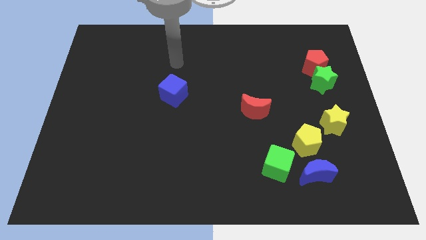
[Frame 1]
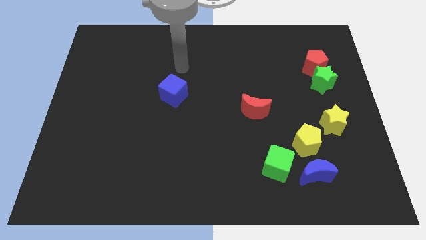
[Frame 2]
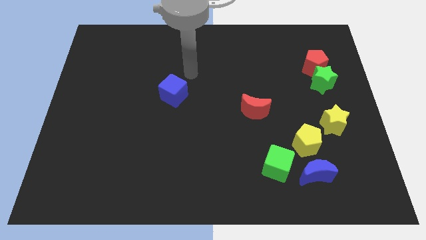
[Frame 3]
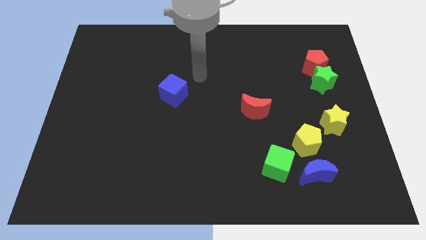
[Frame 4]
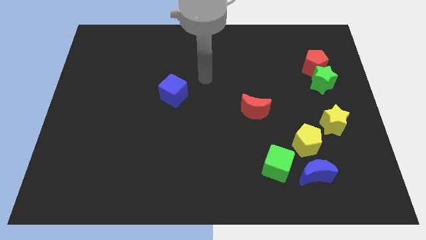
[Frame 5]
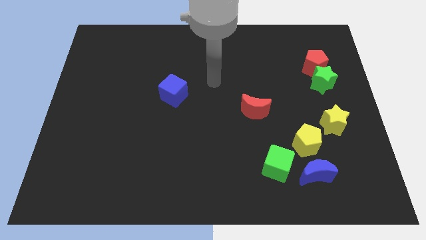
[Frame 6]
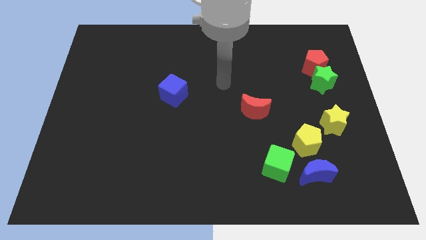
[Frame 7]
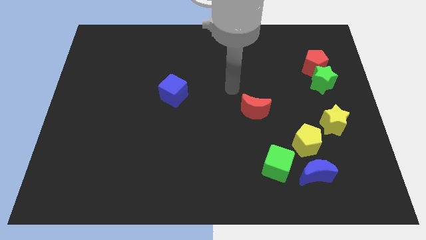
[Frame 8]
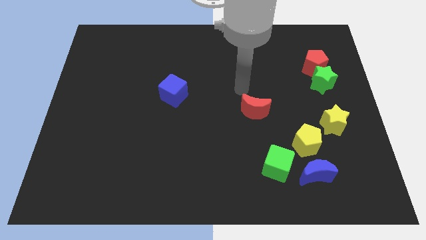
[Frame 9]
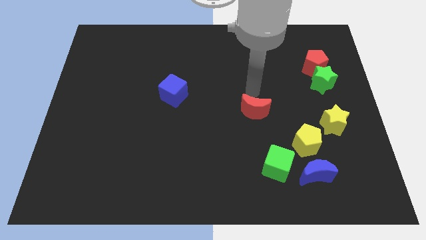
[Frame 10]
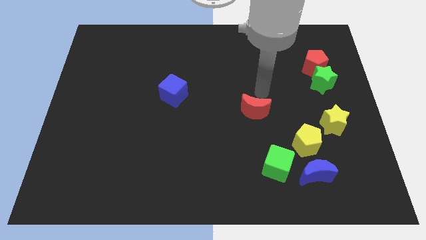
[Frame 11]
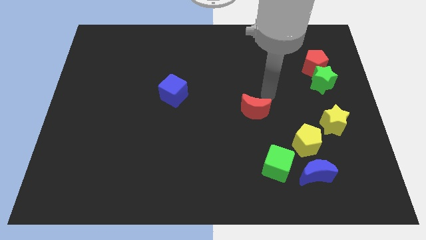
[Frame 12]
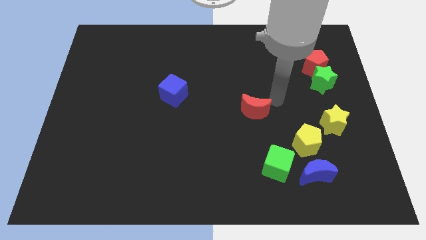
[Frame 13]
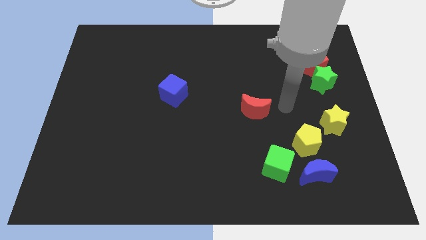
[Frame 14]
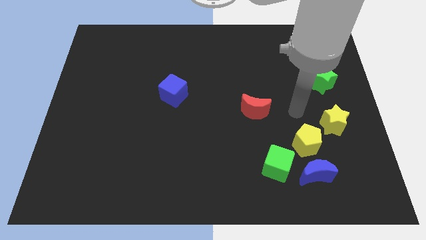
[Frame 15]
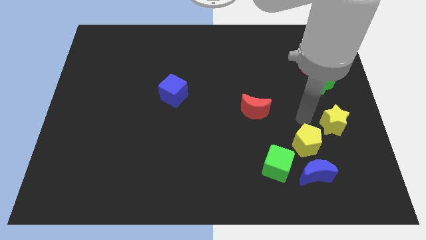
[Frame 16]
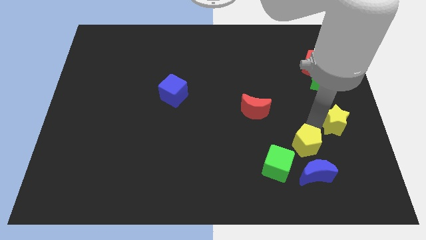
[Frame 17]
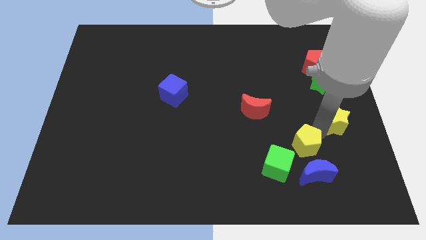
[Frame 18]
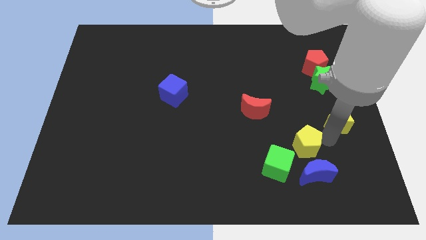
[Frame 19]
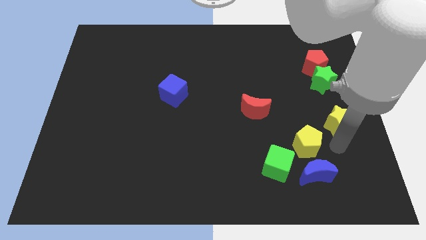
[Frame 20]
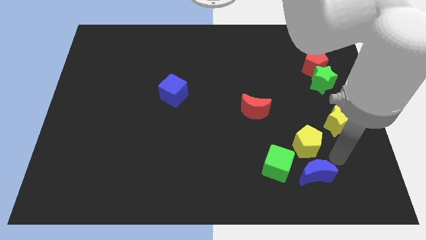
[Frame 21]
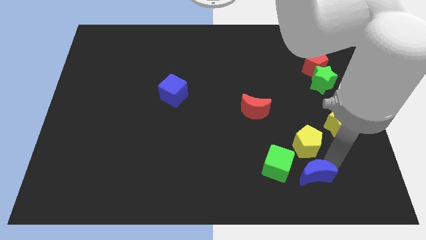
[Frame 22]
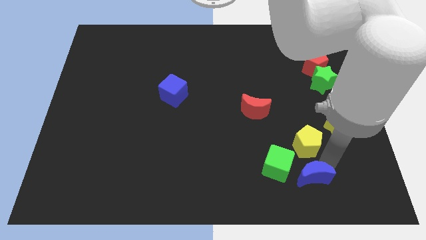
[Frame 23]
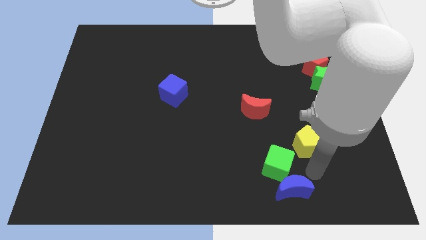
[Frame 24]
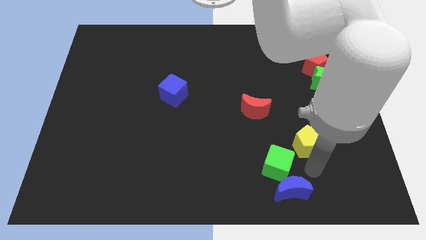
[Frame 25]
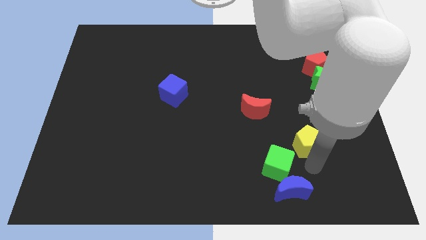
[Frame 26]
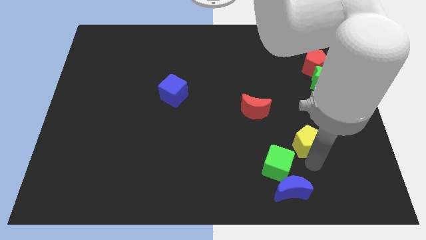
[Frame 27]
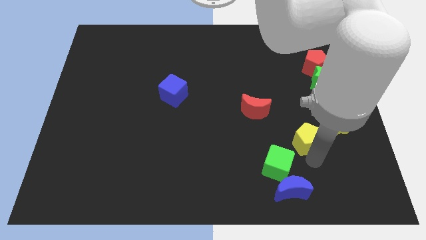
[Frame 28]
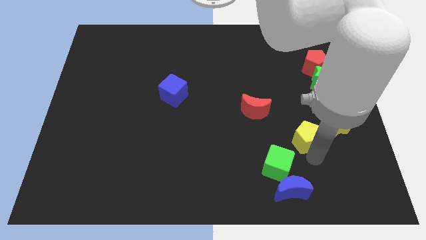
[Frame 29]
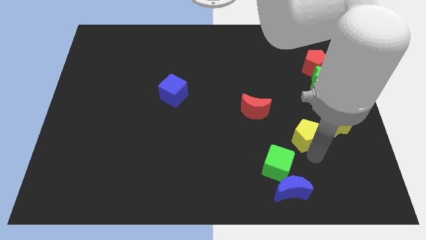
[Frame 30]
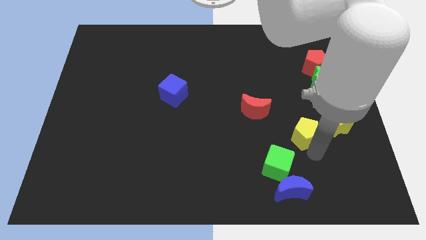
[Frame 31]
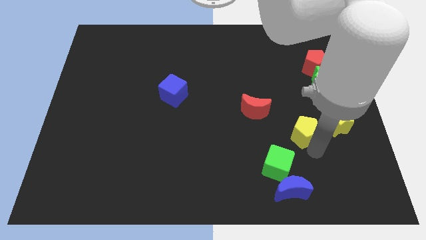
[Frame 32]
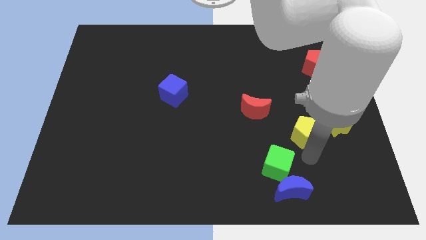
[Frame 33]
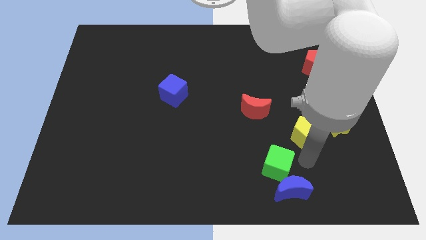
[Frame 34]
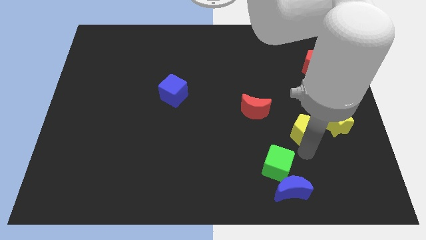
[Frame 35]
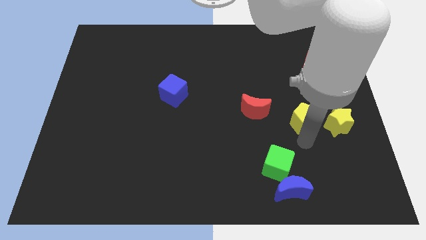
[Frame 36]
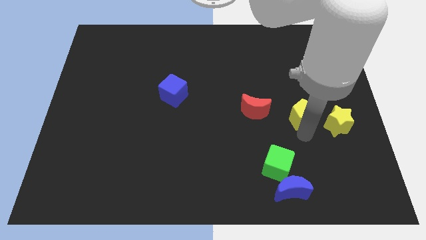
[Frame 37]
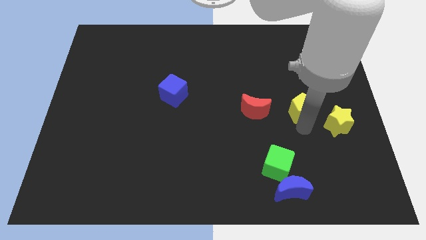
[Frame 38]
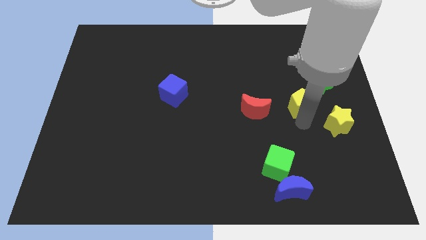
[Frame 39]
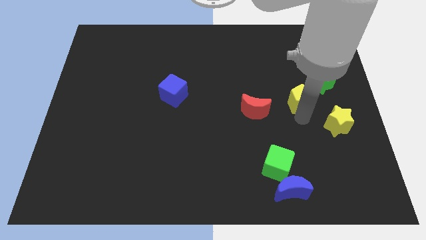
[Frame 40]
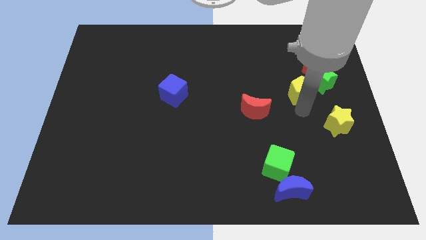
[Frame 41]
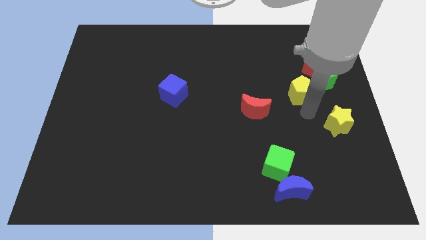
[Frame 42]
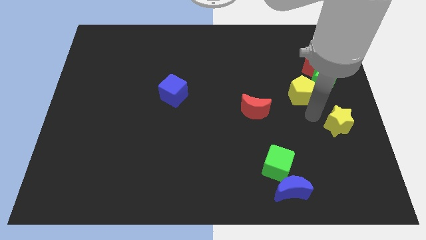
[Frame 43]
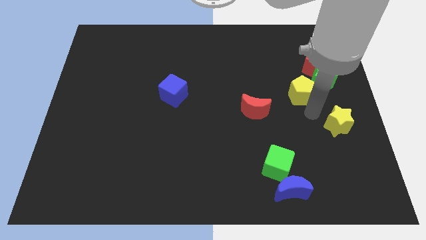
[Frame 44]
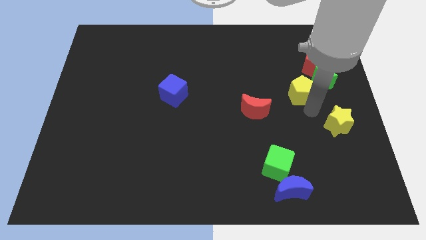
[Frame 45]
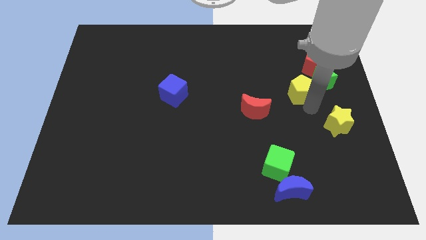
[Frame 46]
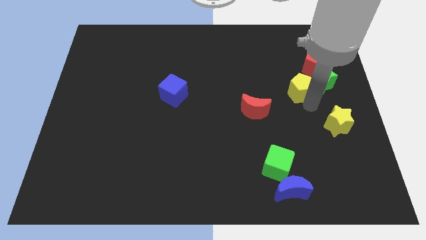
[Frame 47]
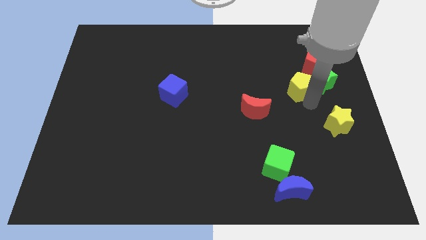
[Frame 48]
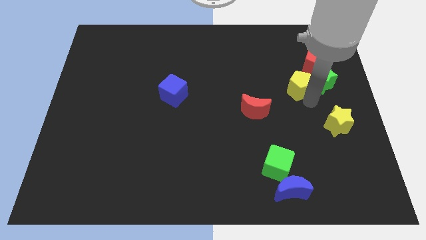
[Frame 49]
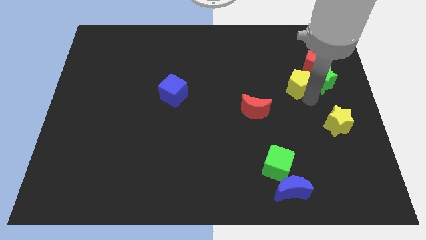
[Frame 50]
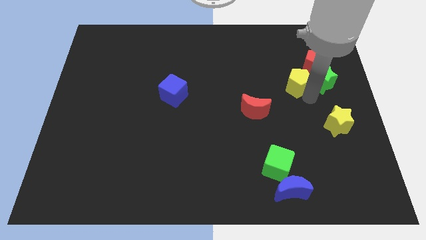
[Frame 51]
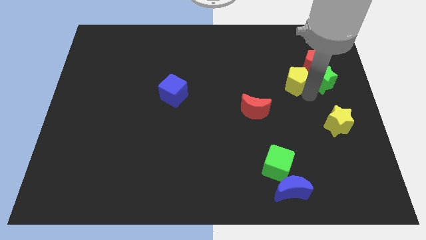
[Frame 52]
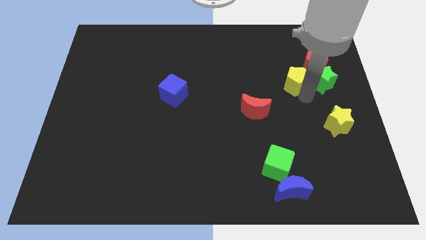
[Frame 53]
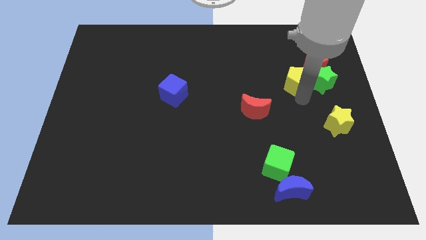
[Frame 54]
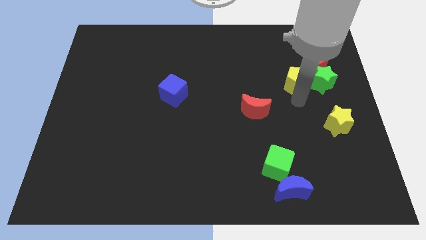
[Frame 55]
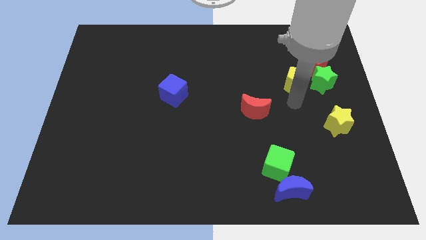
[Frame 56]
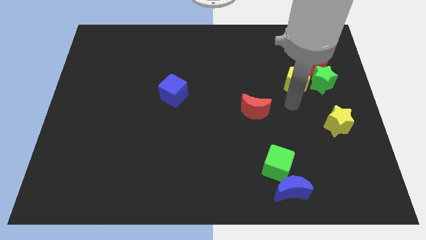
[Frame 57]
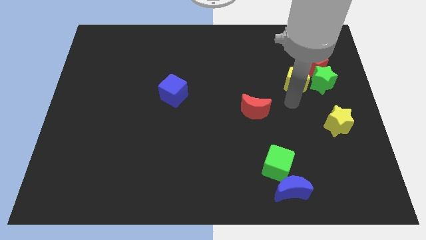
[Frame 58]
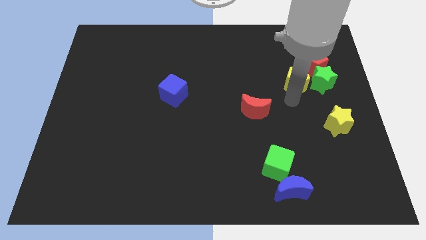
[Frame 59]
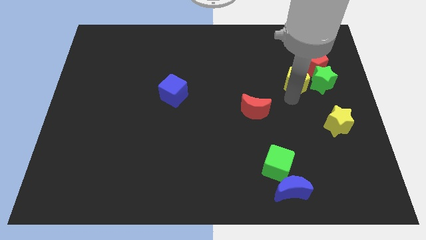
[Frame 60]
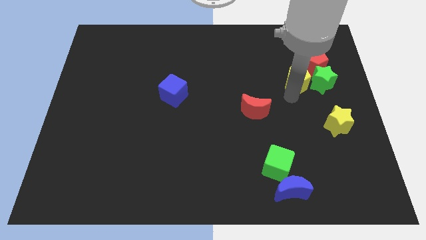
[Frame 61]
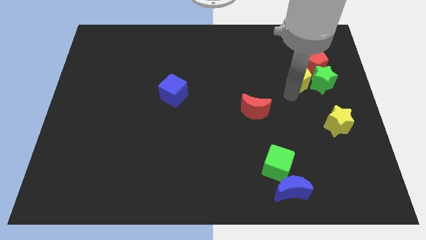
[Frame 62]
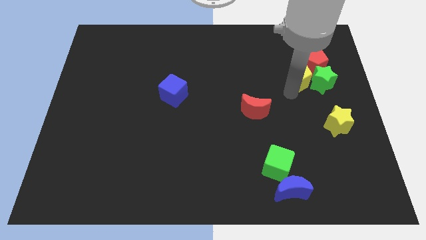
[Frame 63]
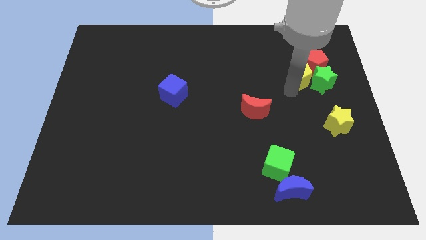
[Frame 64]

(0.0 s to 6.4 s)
put the yellow pentagon to the red pentagon

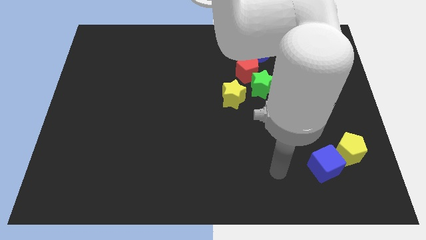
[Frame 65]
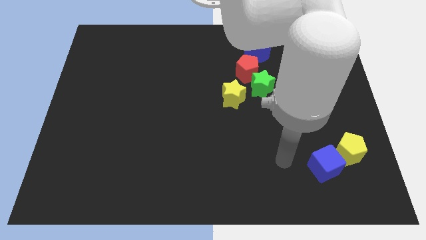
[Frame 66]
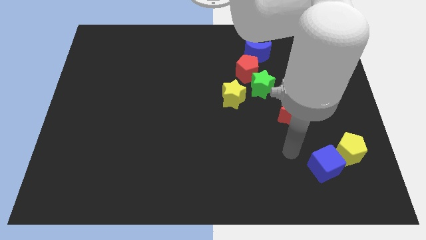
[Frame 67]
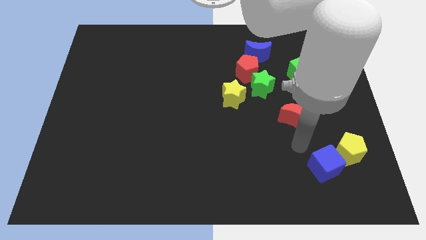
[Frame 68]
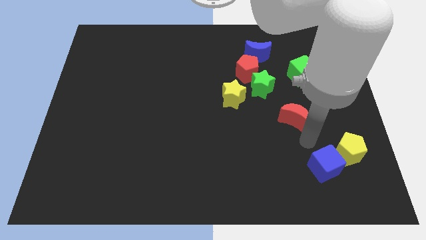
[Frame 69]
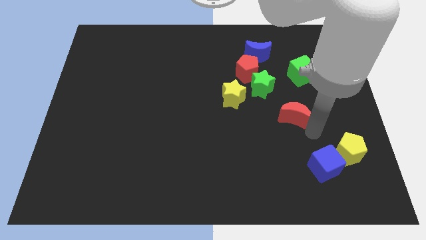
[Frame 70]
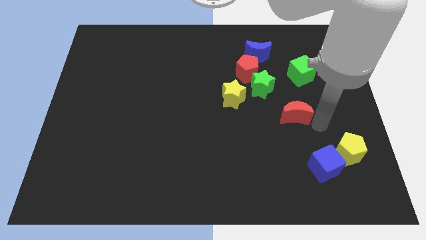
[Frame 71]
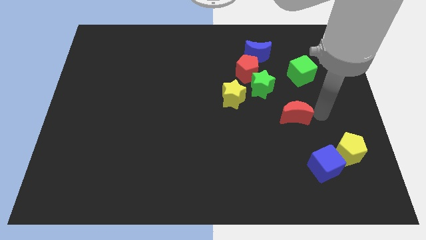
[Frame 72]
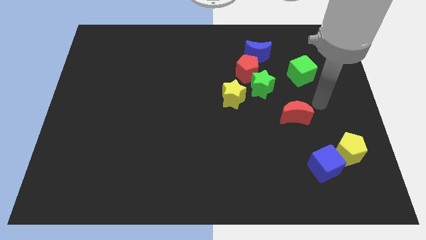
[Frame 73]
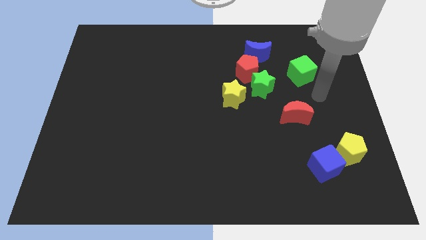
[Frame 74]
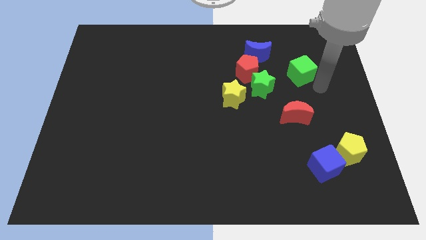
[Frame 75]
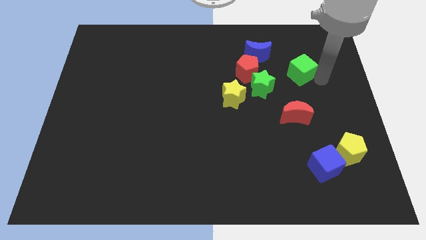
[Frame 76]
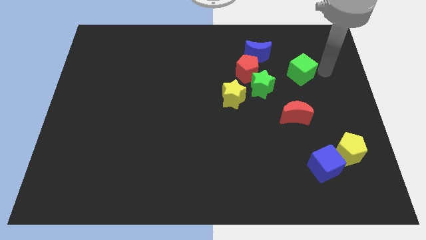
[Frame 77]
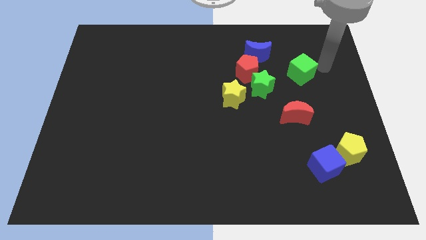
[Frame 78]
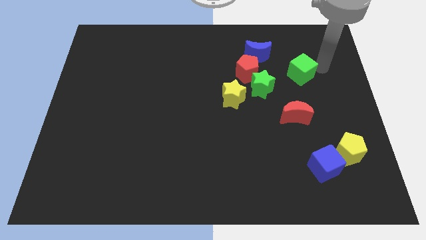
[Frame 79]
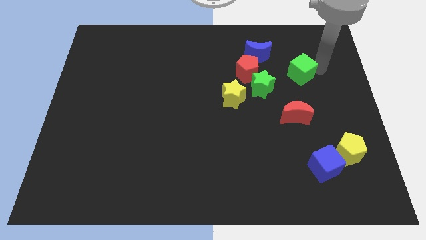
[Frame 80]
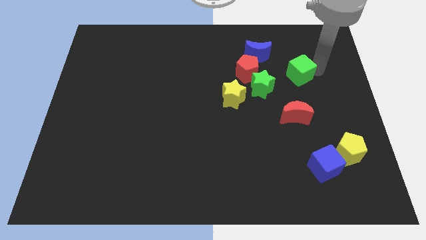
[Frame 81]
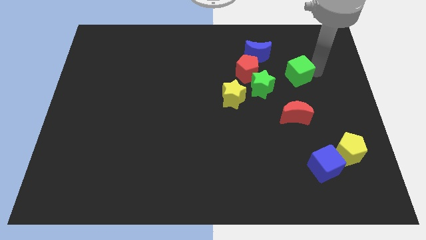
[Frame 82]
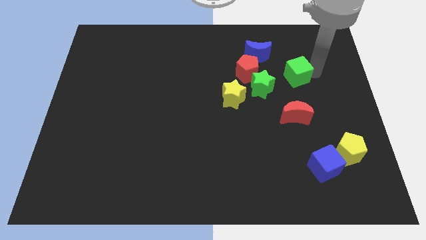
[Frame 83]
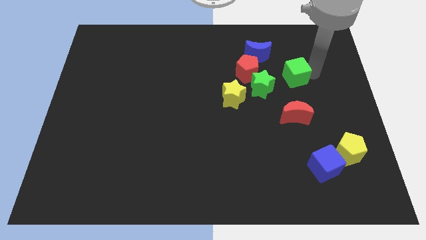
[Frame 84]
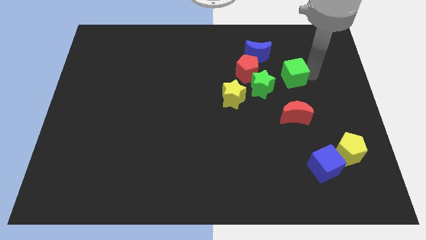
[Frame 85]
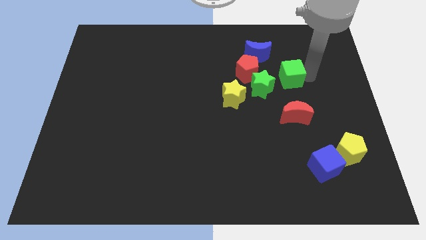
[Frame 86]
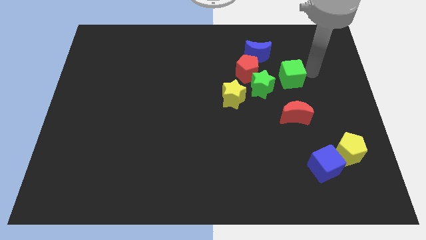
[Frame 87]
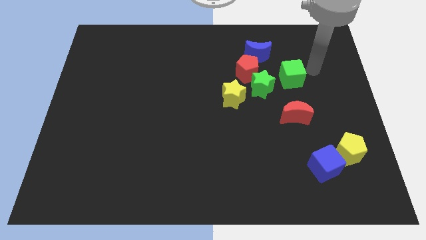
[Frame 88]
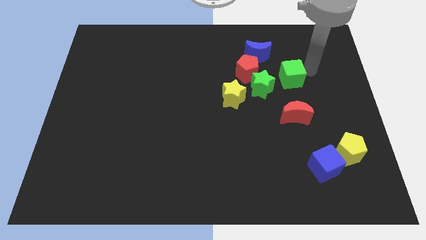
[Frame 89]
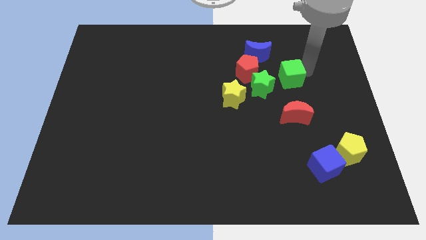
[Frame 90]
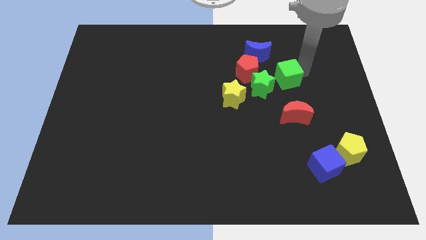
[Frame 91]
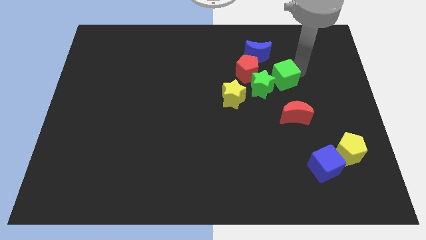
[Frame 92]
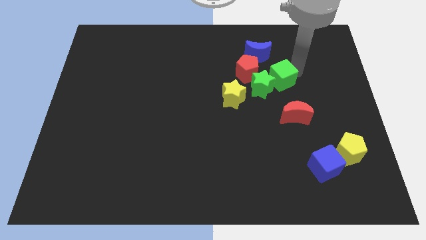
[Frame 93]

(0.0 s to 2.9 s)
put the green cube next to the green star
